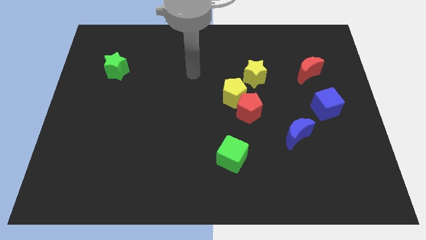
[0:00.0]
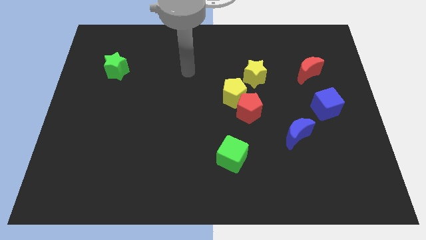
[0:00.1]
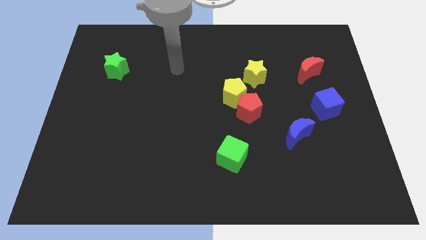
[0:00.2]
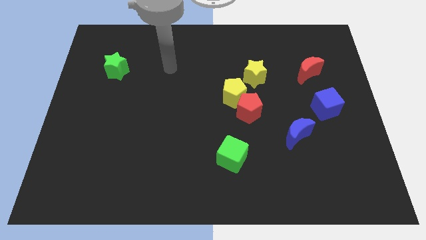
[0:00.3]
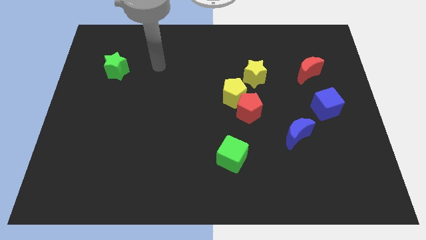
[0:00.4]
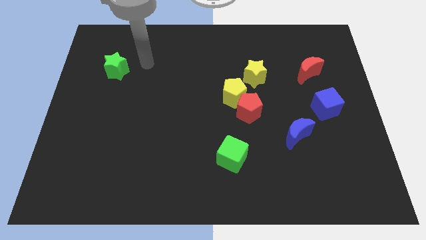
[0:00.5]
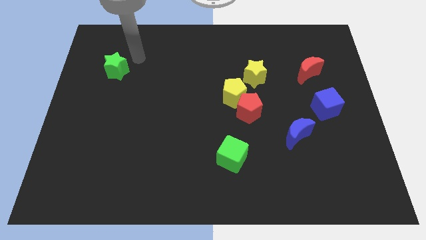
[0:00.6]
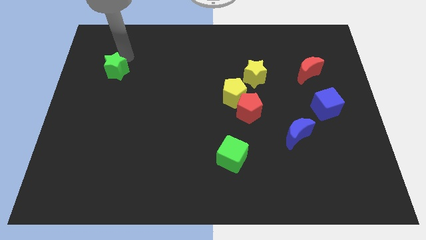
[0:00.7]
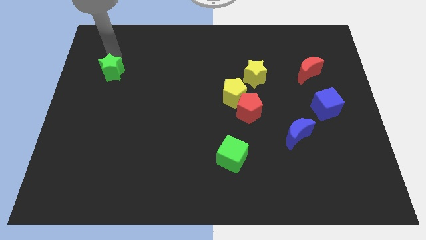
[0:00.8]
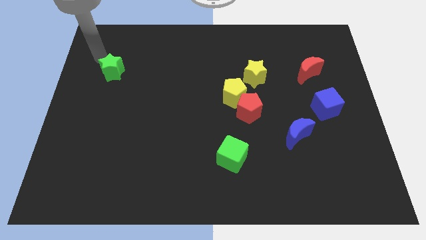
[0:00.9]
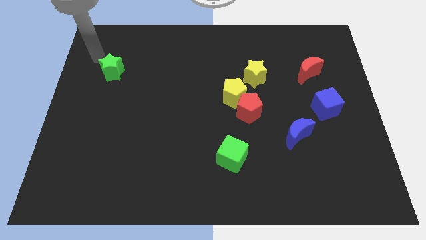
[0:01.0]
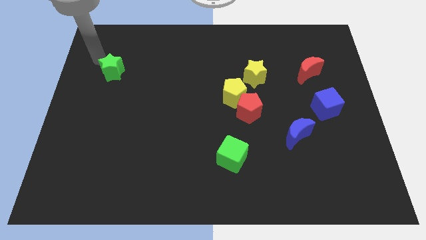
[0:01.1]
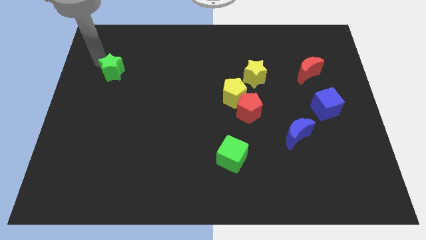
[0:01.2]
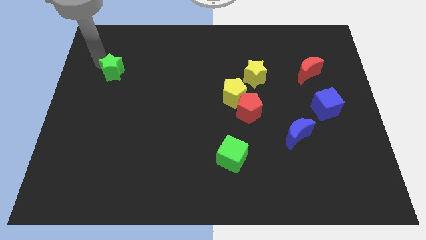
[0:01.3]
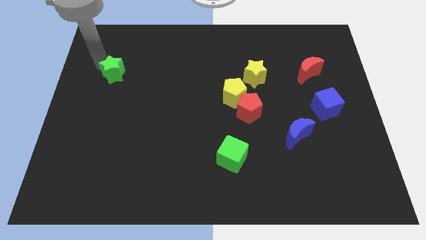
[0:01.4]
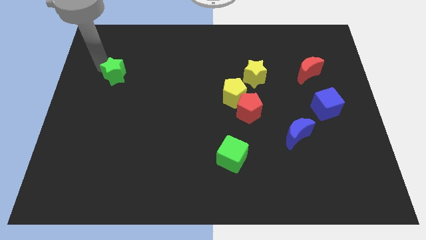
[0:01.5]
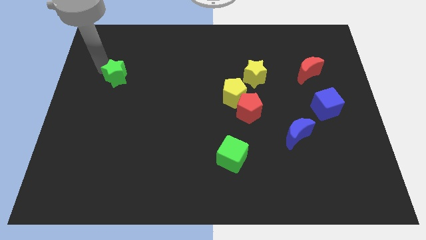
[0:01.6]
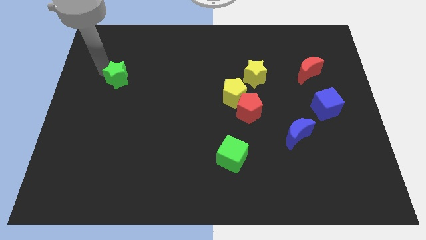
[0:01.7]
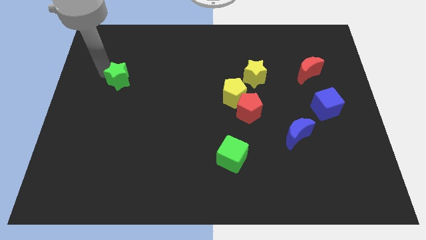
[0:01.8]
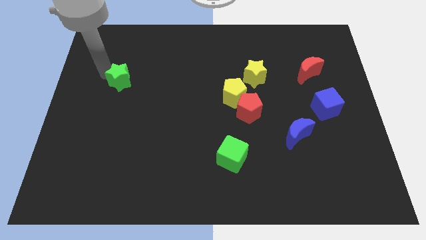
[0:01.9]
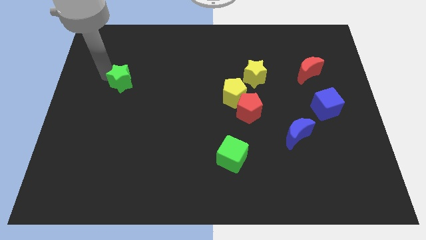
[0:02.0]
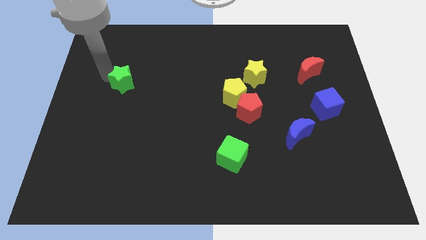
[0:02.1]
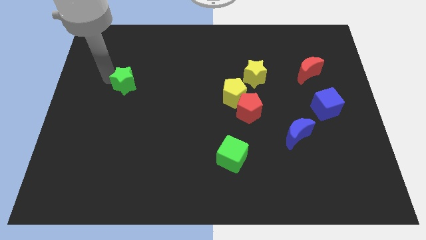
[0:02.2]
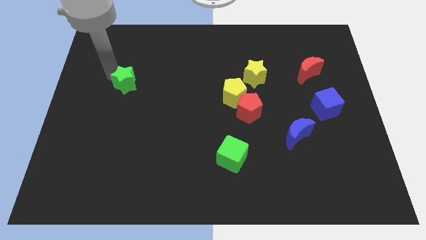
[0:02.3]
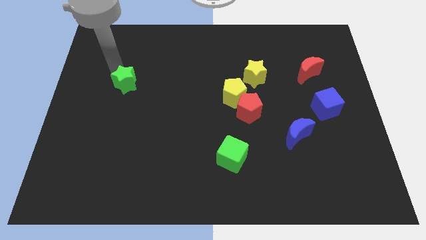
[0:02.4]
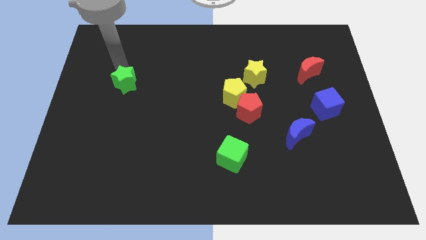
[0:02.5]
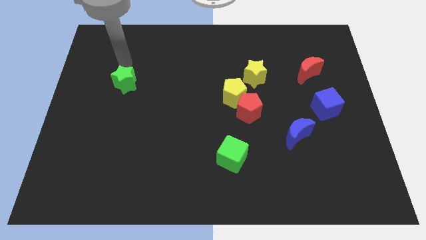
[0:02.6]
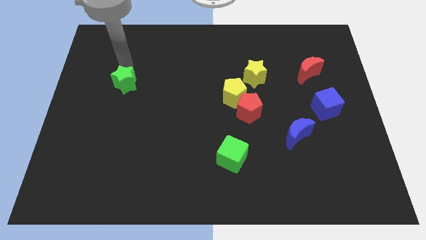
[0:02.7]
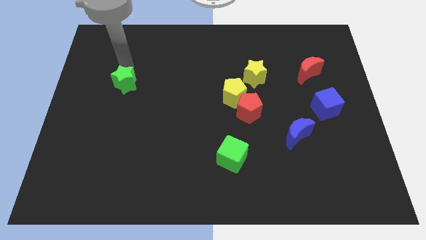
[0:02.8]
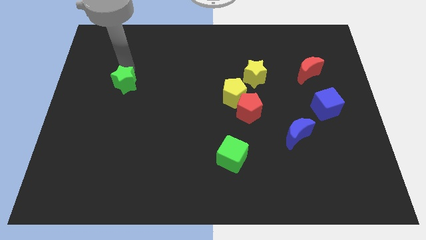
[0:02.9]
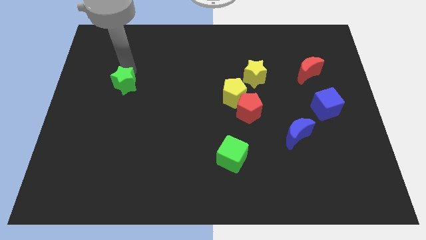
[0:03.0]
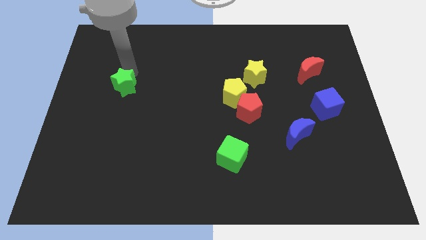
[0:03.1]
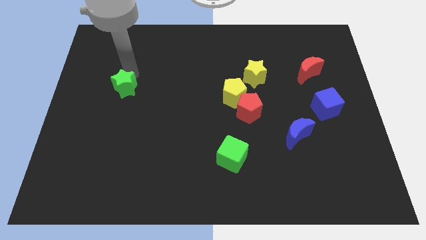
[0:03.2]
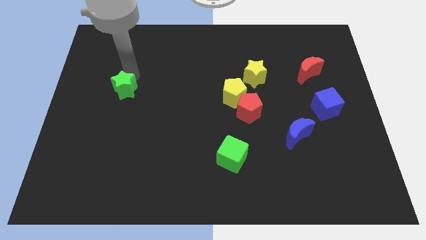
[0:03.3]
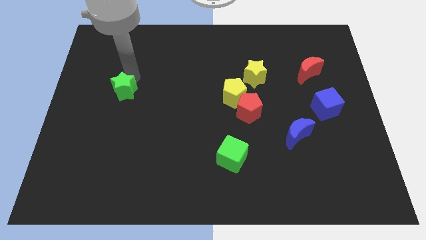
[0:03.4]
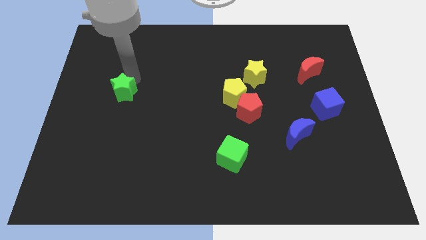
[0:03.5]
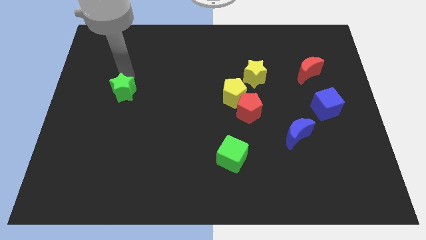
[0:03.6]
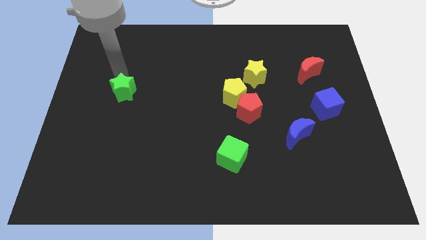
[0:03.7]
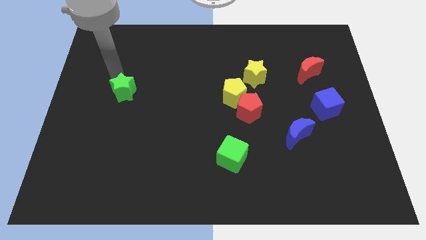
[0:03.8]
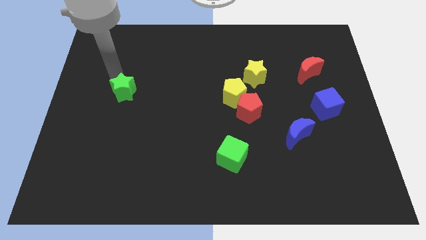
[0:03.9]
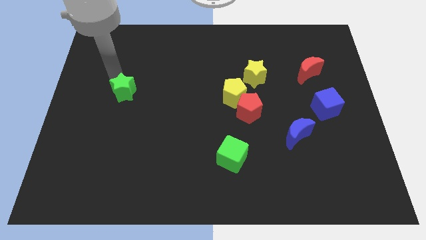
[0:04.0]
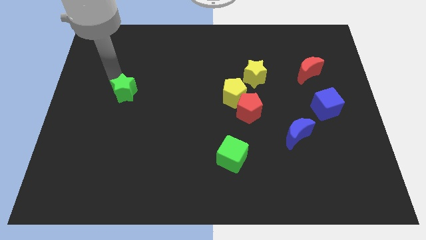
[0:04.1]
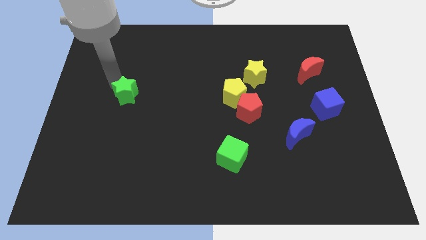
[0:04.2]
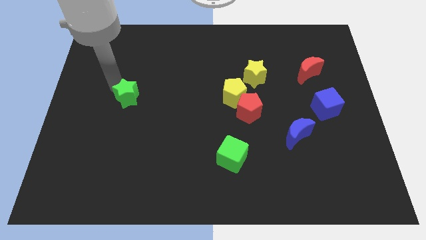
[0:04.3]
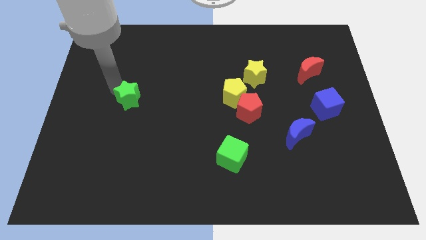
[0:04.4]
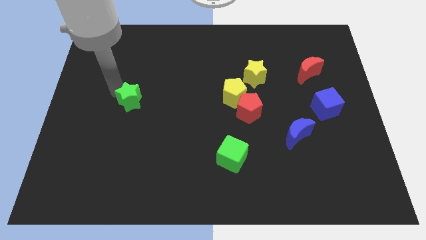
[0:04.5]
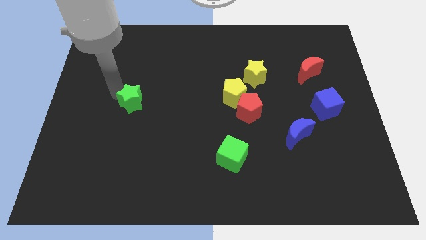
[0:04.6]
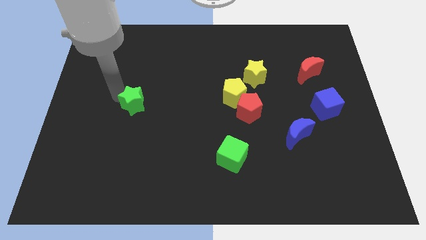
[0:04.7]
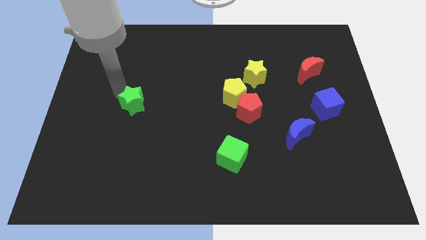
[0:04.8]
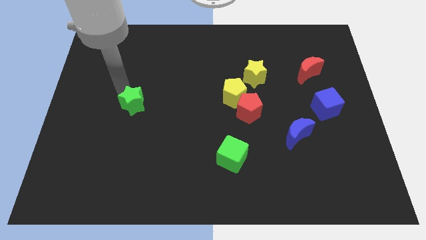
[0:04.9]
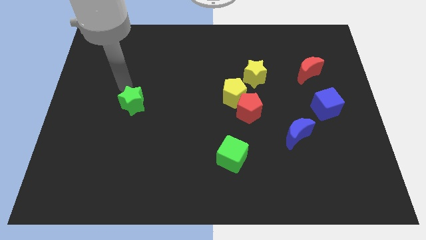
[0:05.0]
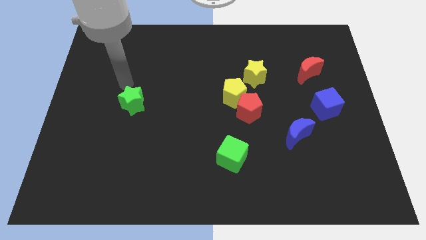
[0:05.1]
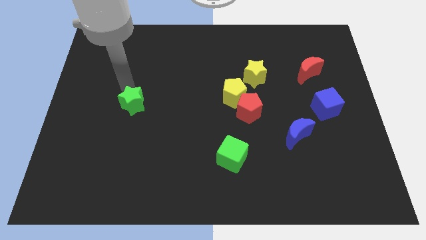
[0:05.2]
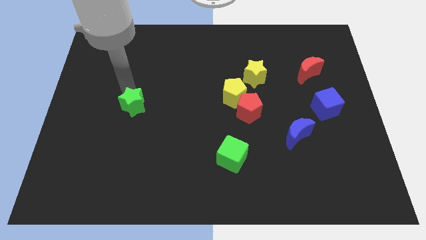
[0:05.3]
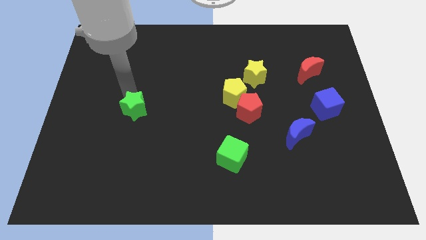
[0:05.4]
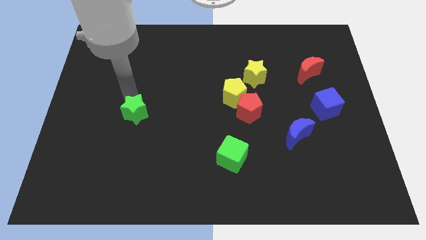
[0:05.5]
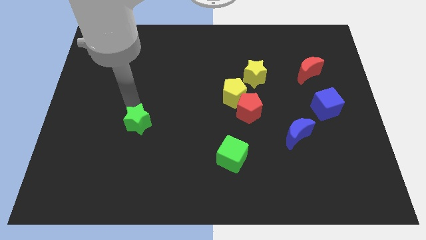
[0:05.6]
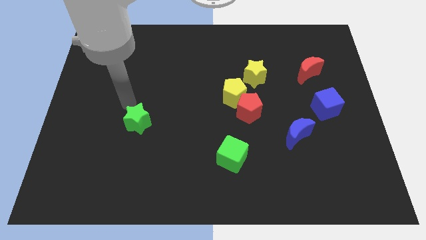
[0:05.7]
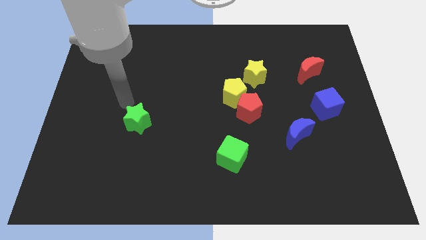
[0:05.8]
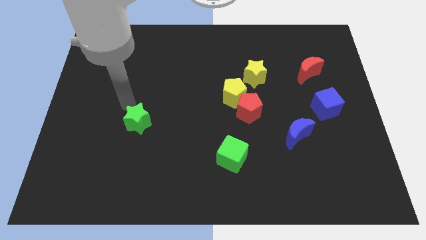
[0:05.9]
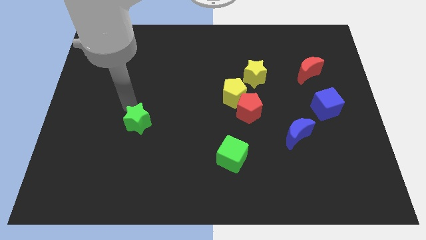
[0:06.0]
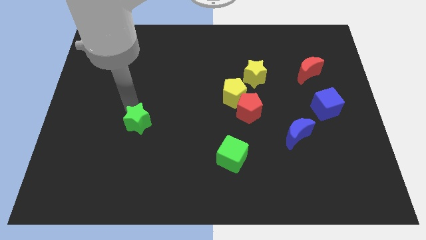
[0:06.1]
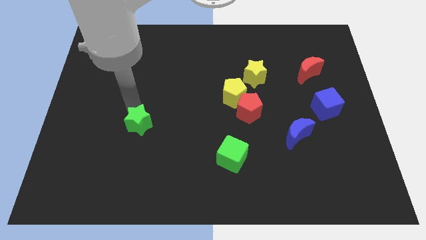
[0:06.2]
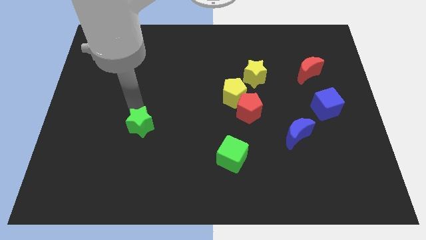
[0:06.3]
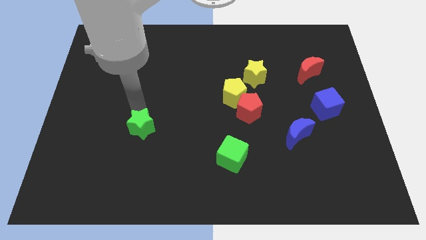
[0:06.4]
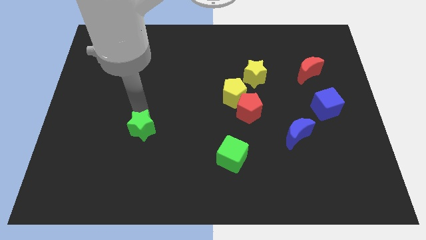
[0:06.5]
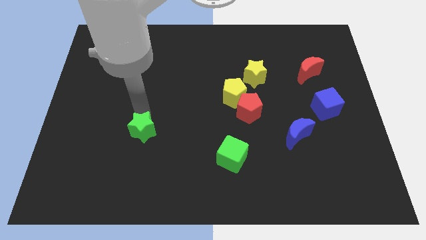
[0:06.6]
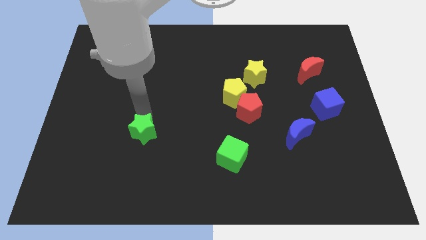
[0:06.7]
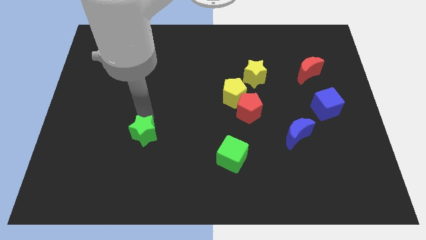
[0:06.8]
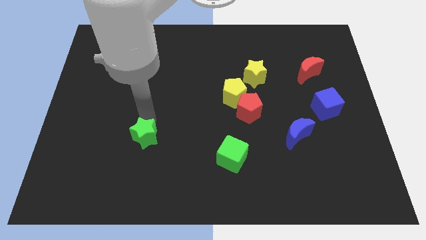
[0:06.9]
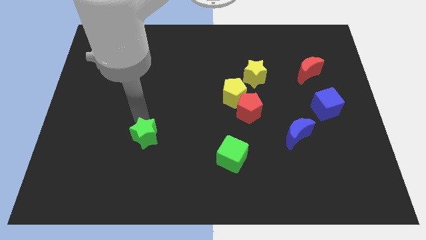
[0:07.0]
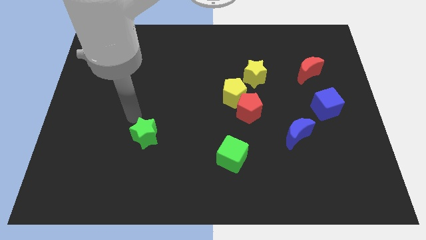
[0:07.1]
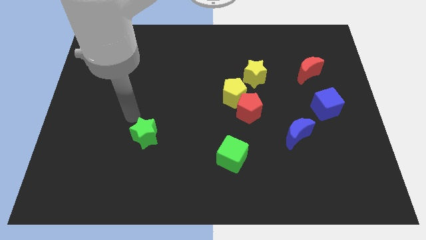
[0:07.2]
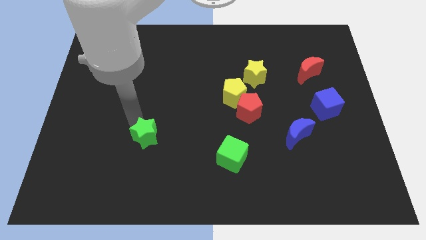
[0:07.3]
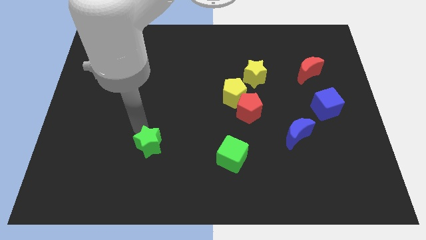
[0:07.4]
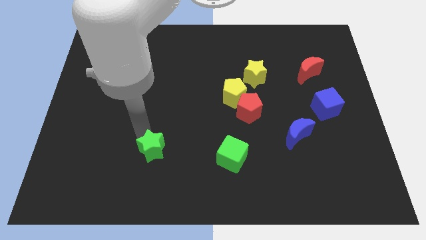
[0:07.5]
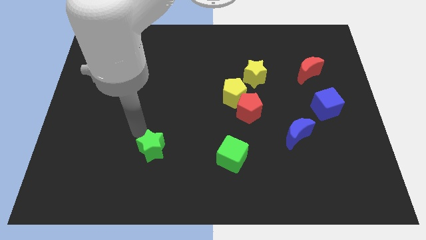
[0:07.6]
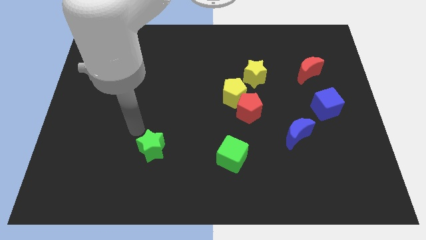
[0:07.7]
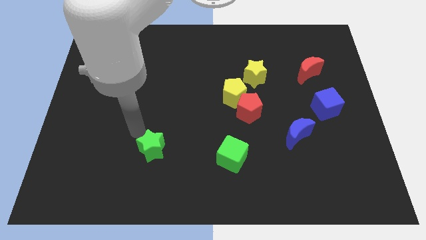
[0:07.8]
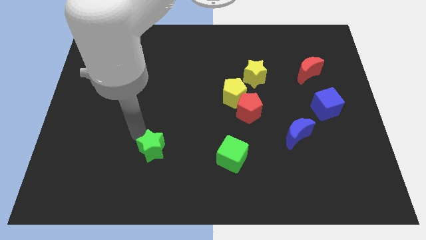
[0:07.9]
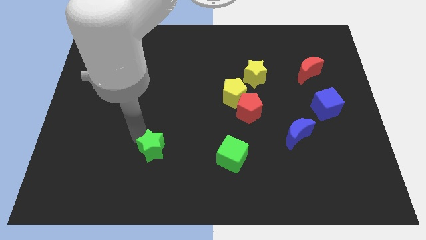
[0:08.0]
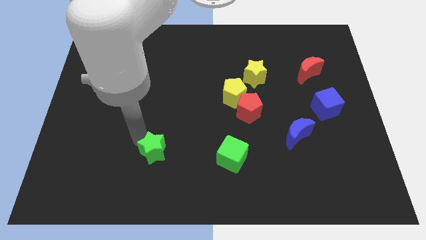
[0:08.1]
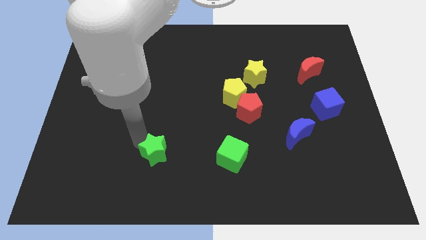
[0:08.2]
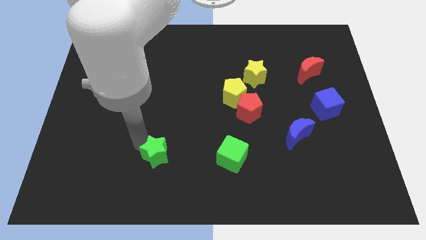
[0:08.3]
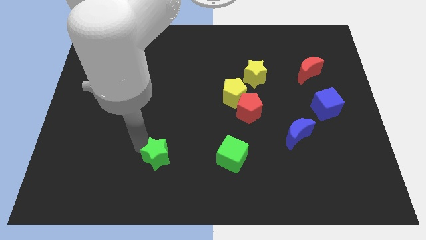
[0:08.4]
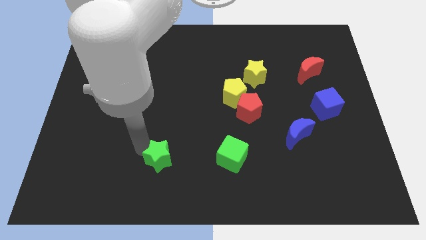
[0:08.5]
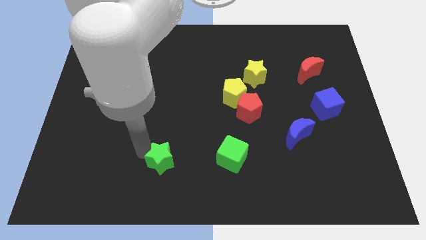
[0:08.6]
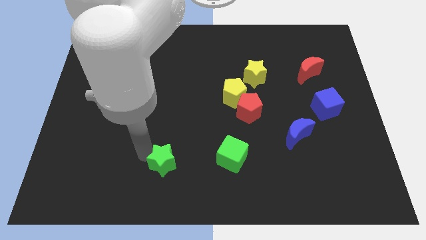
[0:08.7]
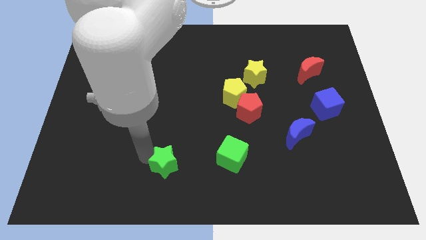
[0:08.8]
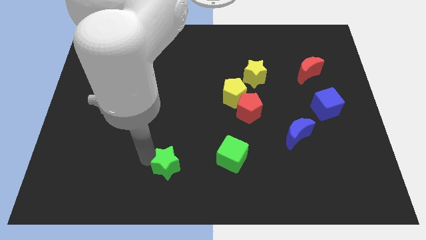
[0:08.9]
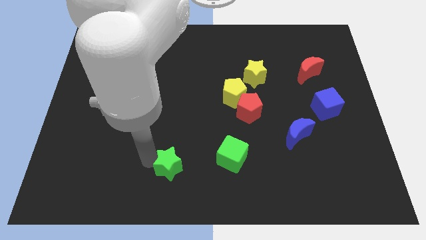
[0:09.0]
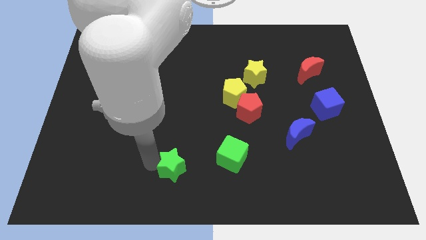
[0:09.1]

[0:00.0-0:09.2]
move the green star to the bottom
